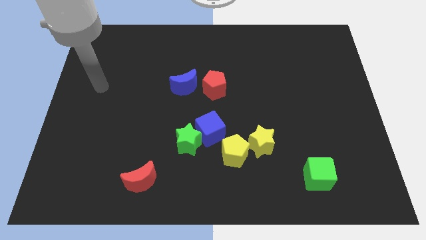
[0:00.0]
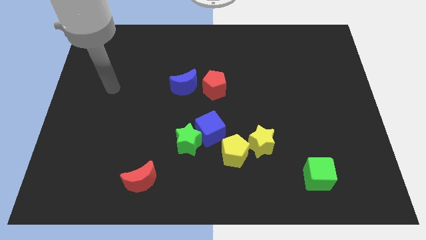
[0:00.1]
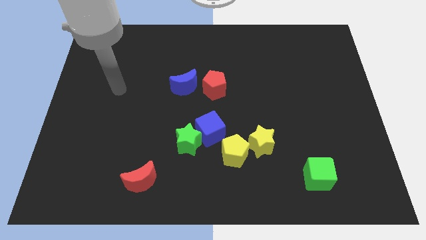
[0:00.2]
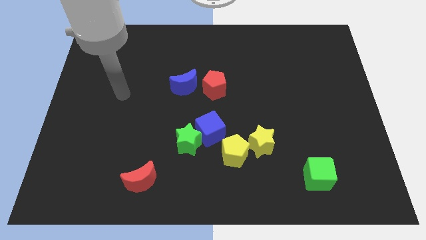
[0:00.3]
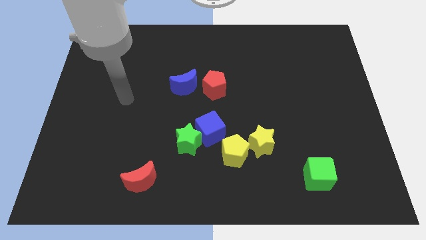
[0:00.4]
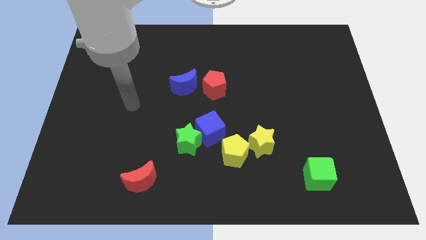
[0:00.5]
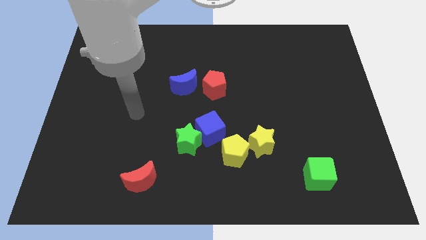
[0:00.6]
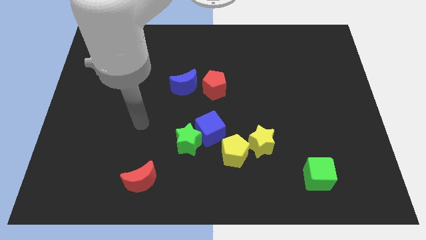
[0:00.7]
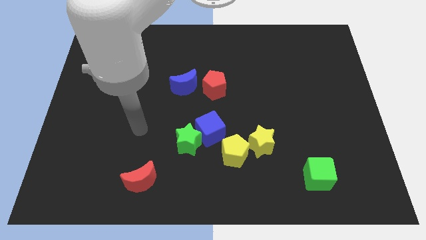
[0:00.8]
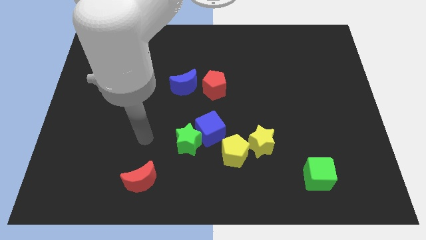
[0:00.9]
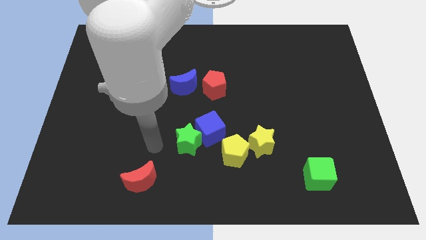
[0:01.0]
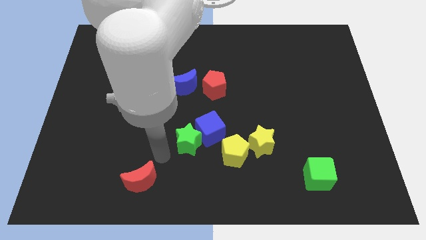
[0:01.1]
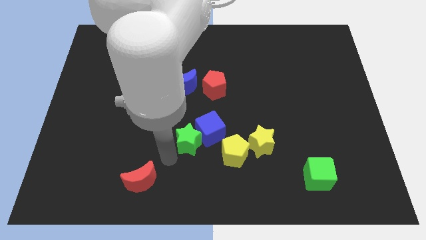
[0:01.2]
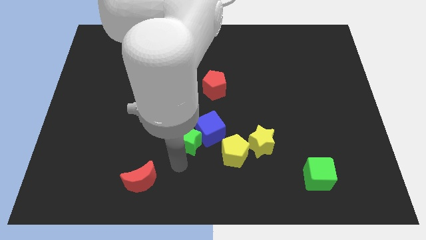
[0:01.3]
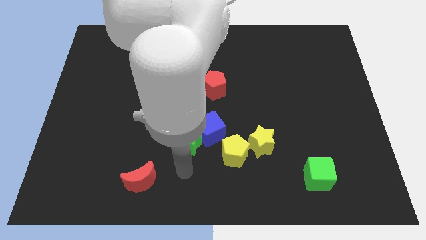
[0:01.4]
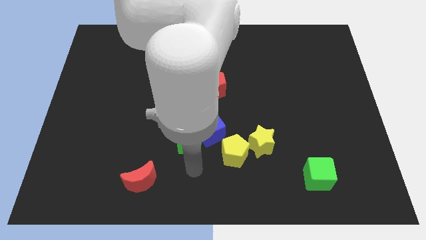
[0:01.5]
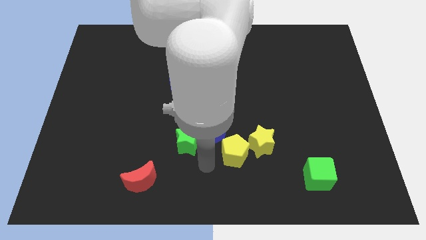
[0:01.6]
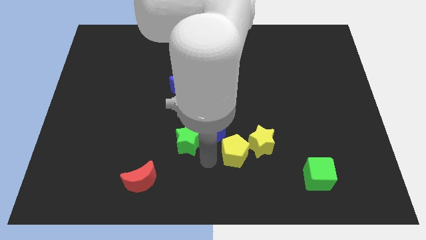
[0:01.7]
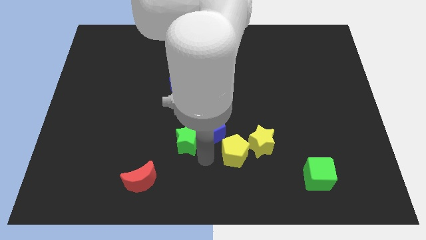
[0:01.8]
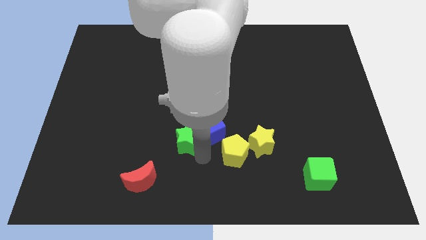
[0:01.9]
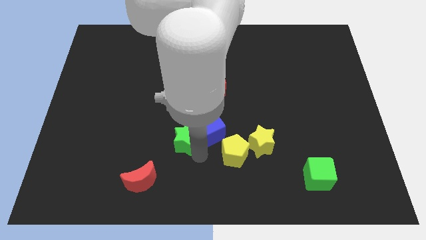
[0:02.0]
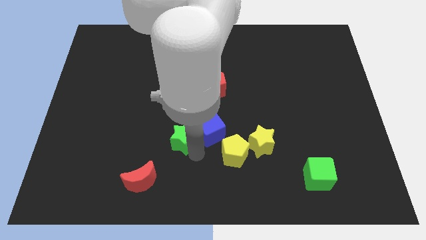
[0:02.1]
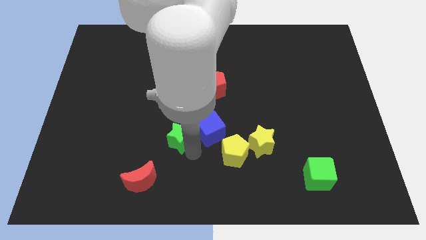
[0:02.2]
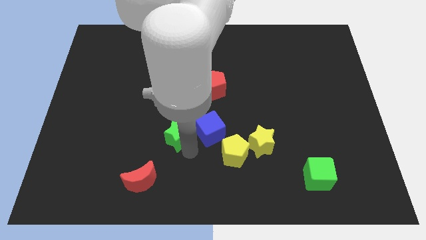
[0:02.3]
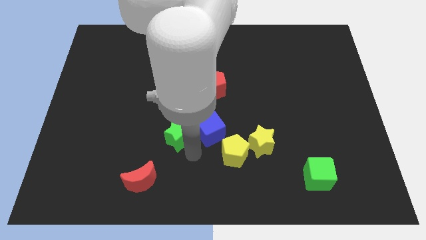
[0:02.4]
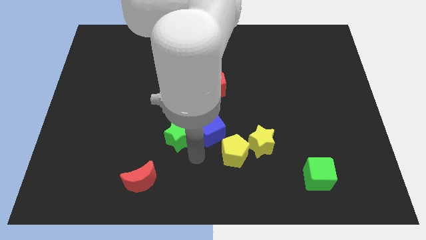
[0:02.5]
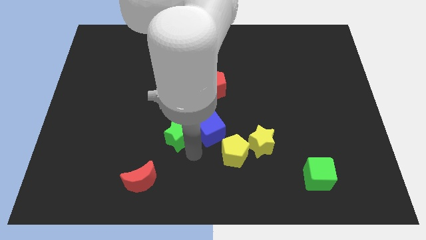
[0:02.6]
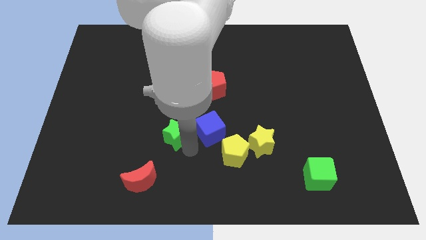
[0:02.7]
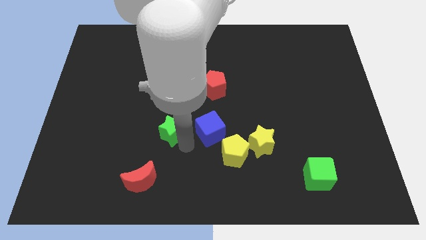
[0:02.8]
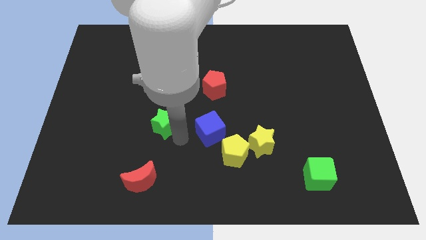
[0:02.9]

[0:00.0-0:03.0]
move the green star upwards and then left a little bit

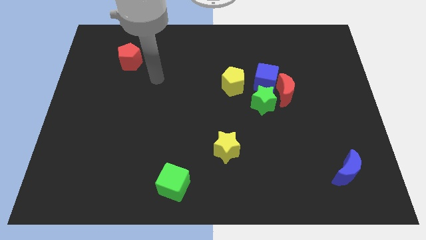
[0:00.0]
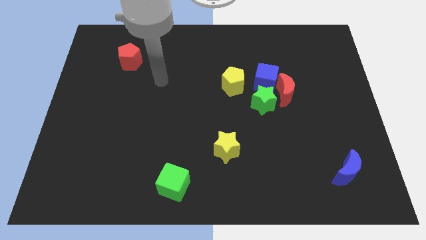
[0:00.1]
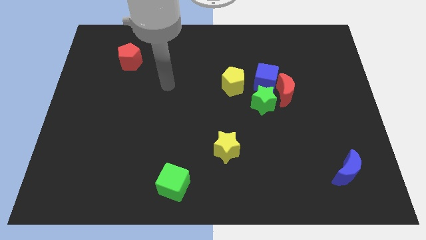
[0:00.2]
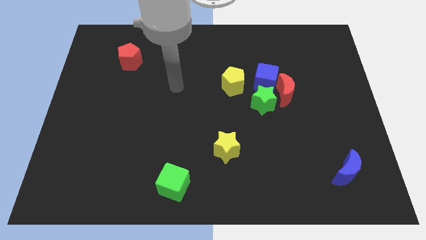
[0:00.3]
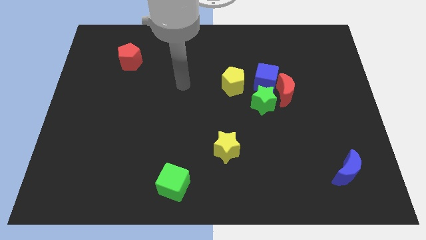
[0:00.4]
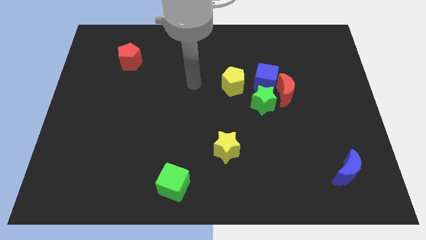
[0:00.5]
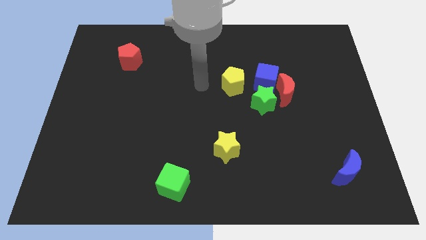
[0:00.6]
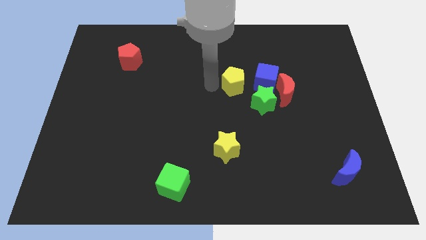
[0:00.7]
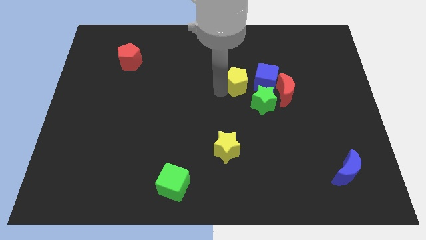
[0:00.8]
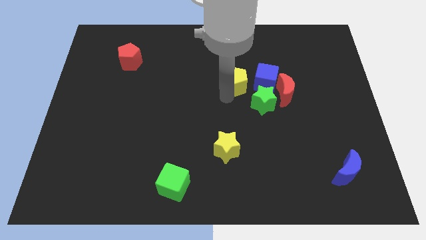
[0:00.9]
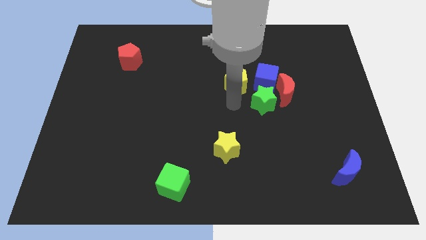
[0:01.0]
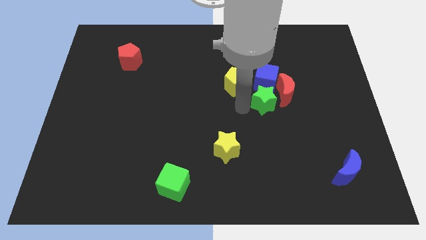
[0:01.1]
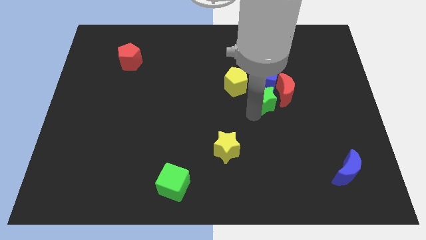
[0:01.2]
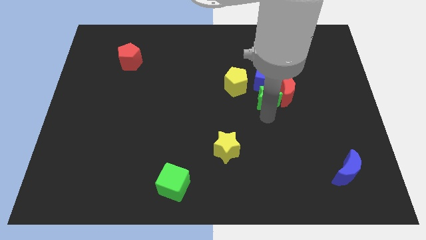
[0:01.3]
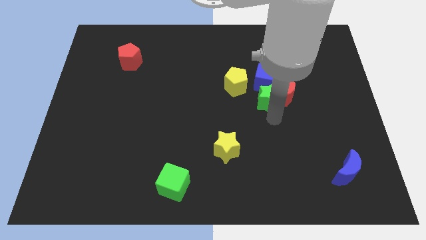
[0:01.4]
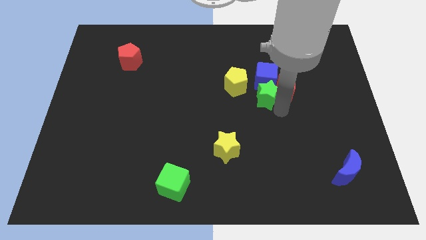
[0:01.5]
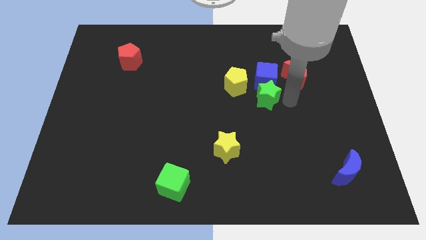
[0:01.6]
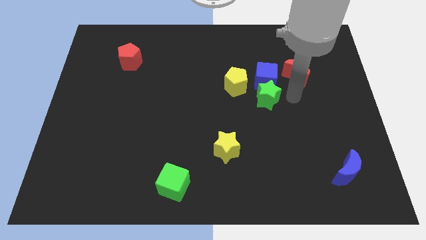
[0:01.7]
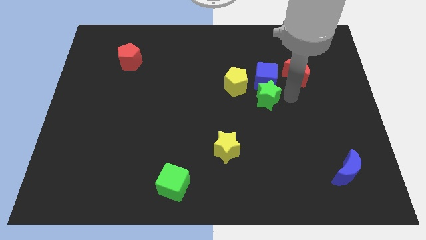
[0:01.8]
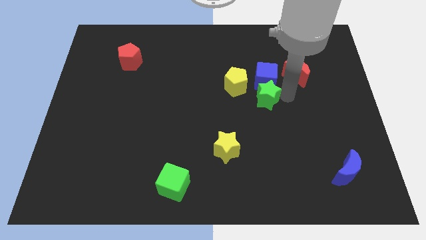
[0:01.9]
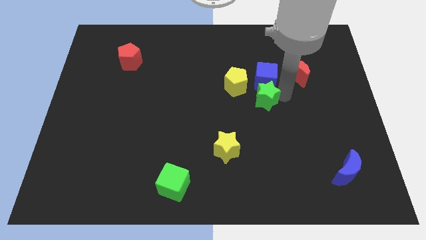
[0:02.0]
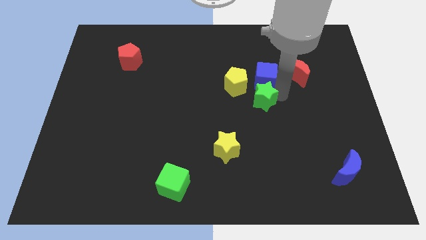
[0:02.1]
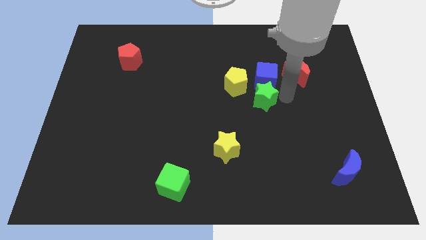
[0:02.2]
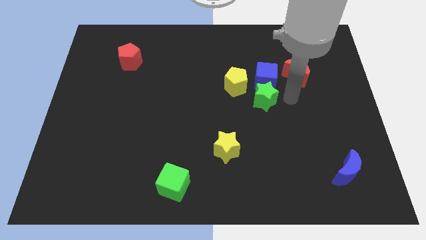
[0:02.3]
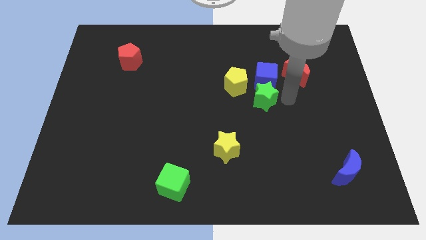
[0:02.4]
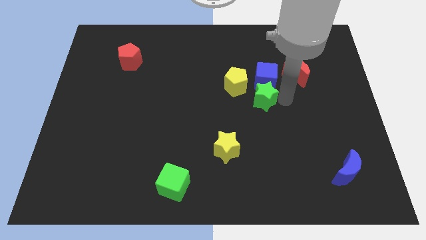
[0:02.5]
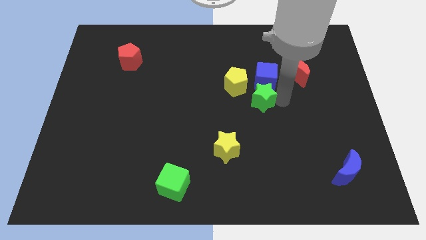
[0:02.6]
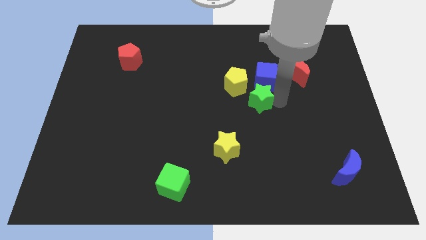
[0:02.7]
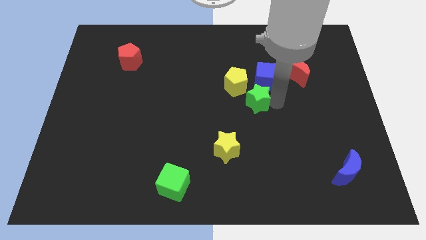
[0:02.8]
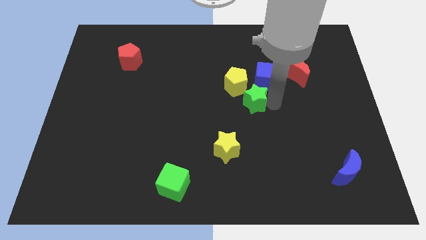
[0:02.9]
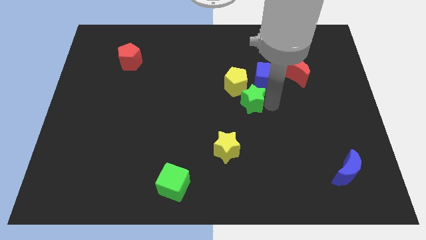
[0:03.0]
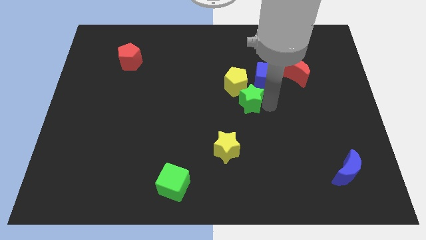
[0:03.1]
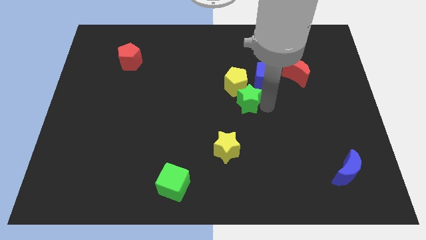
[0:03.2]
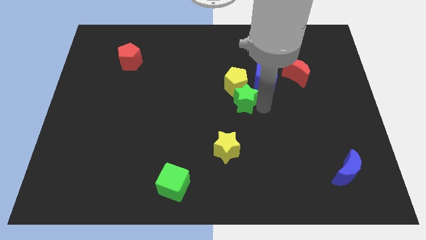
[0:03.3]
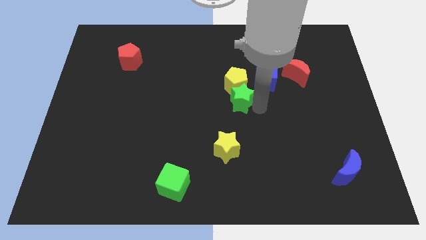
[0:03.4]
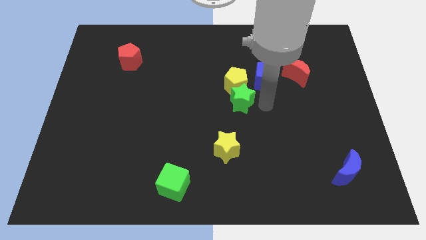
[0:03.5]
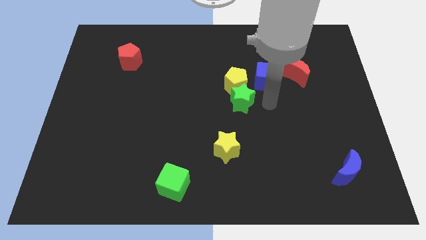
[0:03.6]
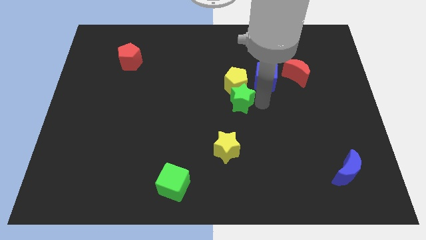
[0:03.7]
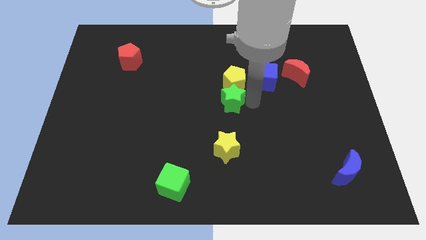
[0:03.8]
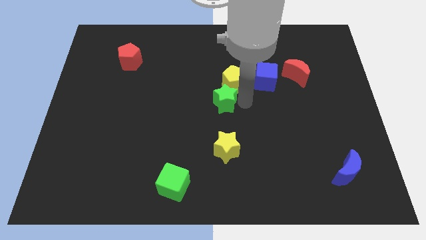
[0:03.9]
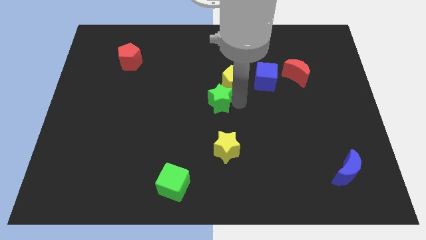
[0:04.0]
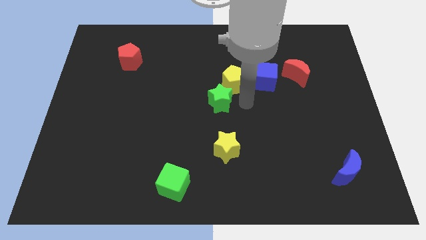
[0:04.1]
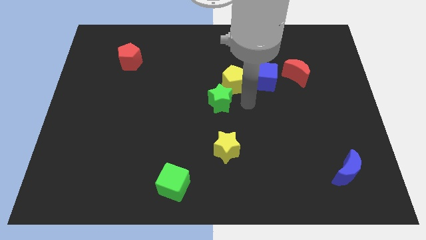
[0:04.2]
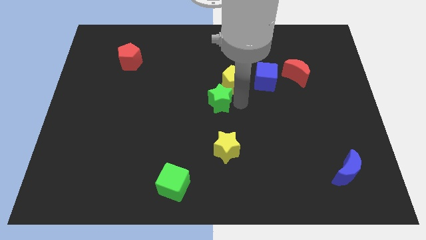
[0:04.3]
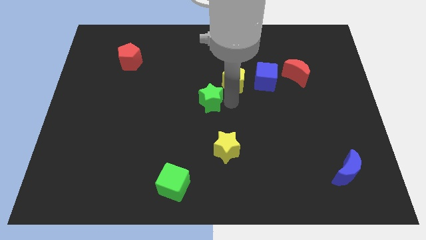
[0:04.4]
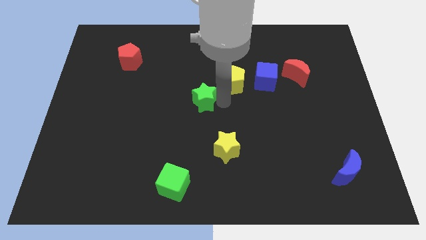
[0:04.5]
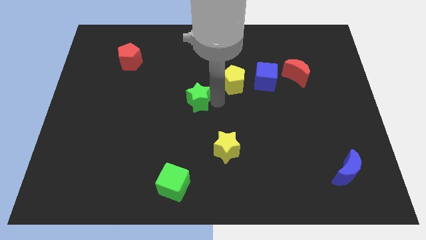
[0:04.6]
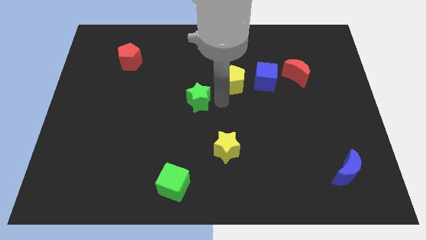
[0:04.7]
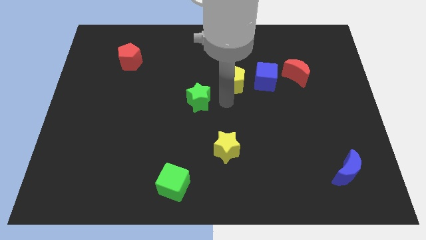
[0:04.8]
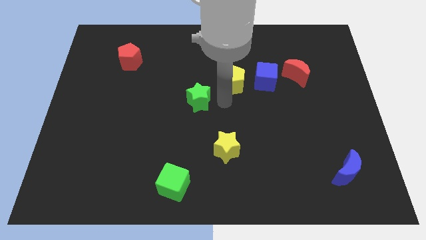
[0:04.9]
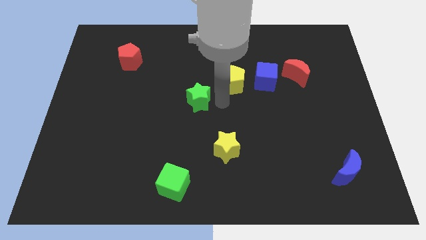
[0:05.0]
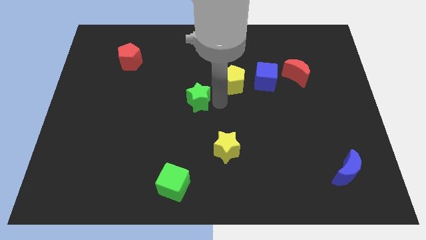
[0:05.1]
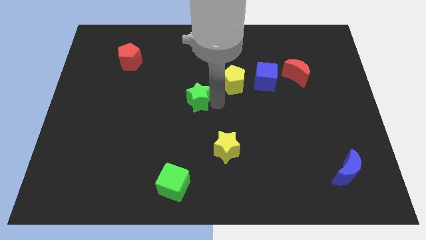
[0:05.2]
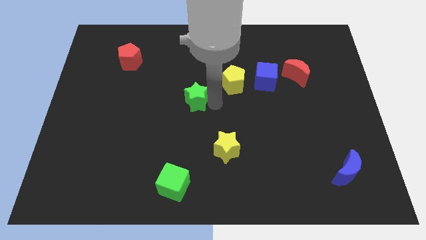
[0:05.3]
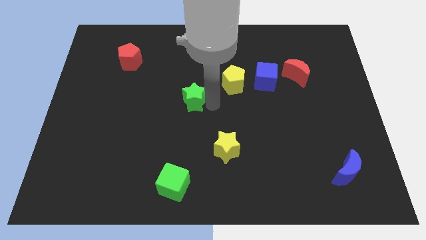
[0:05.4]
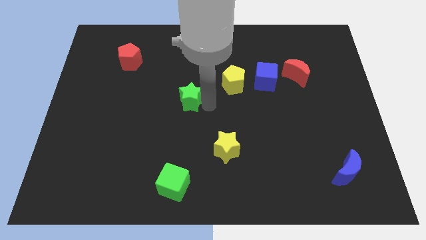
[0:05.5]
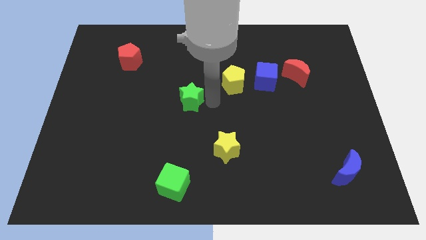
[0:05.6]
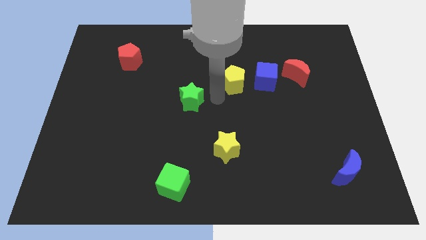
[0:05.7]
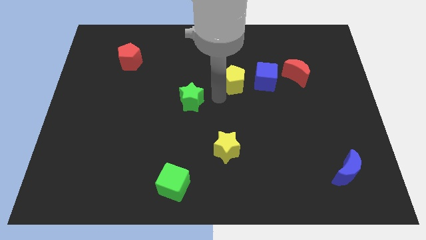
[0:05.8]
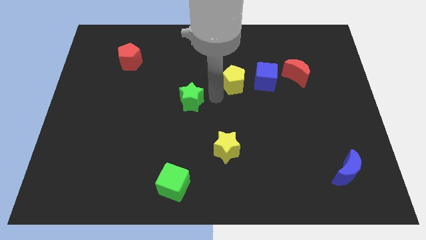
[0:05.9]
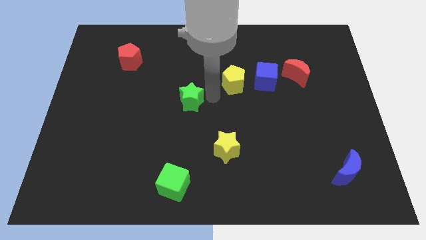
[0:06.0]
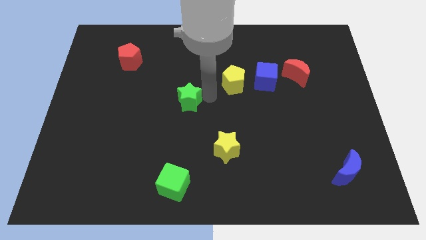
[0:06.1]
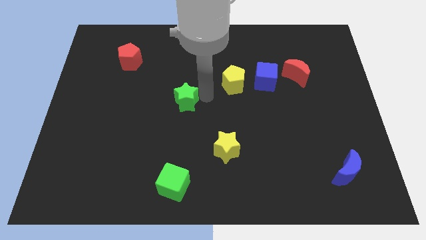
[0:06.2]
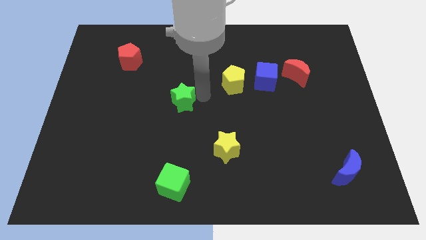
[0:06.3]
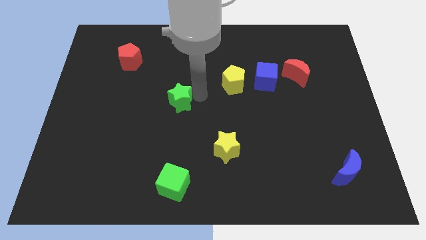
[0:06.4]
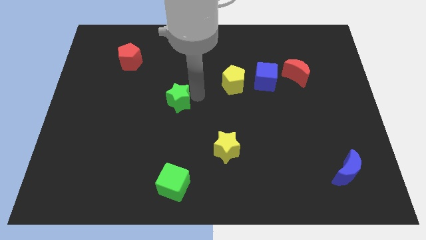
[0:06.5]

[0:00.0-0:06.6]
push the green star left
